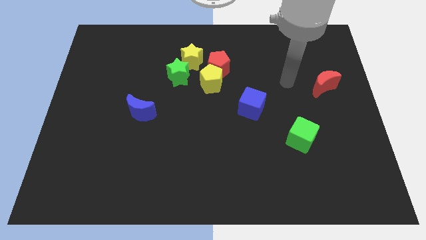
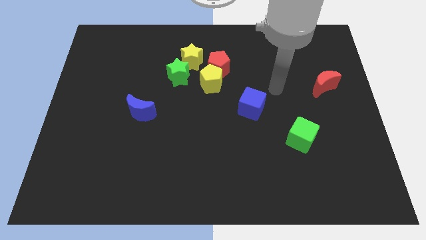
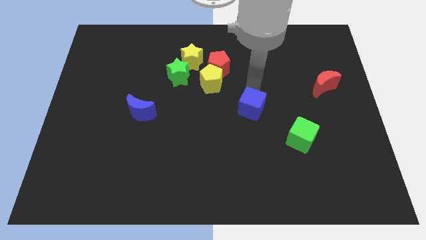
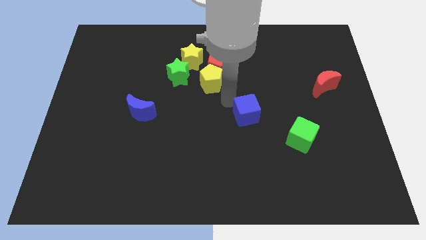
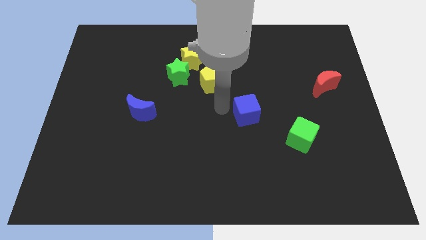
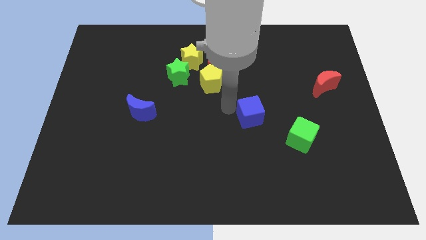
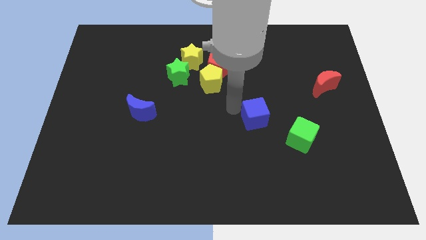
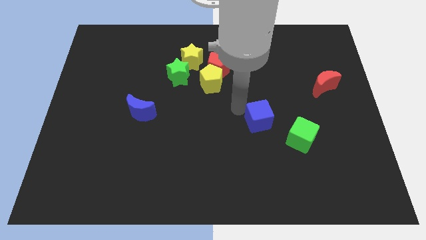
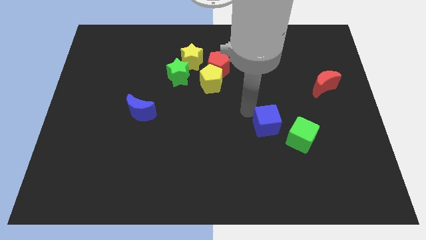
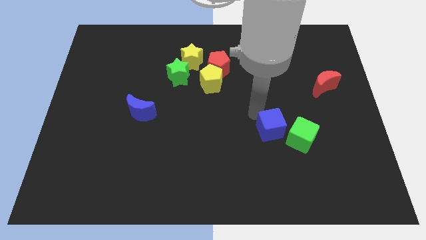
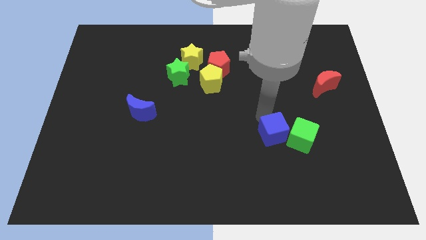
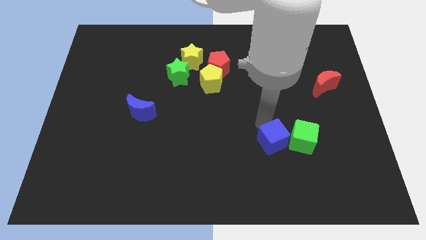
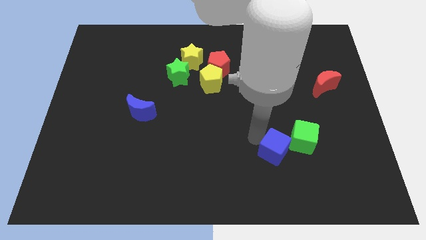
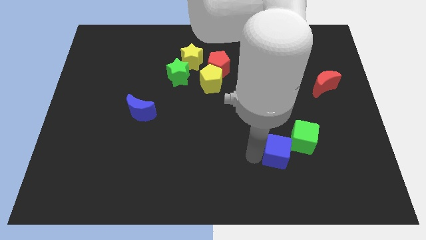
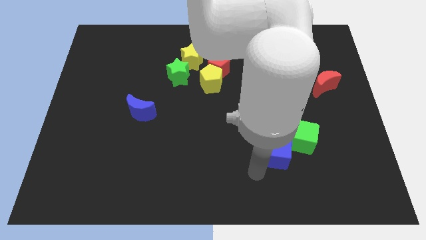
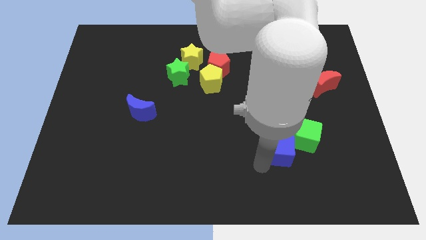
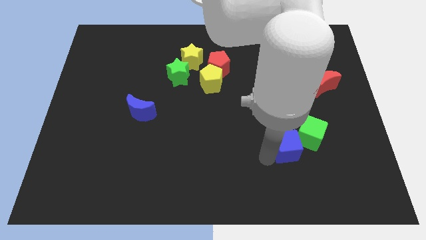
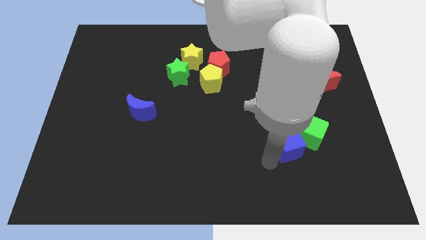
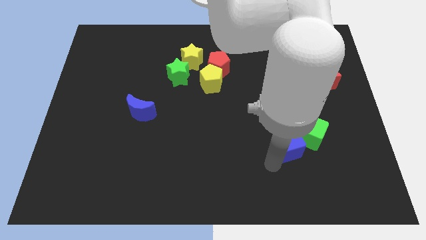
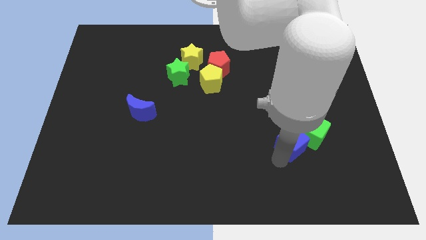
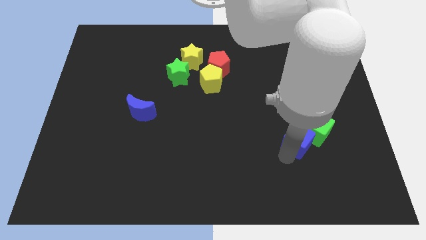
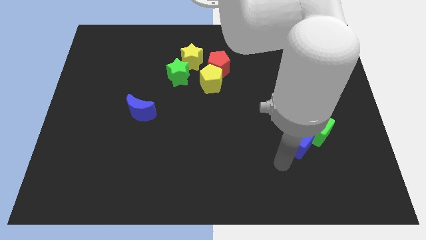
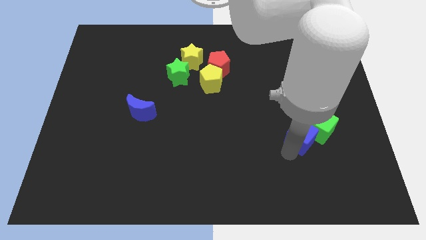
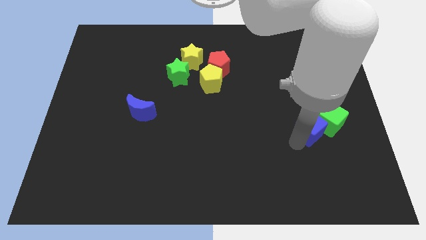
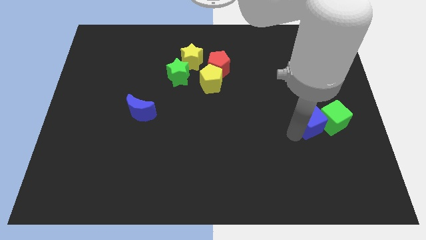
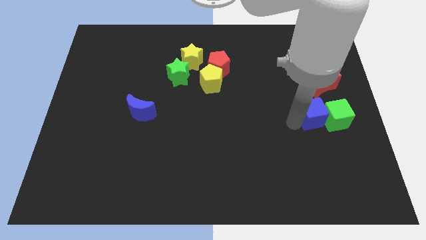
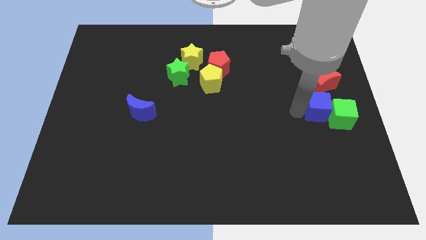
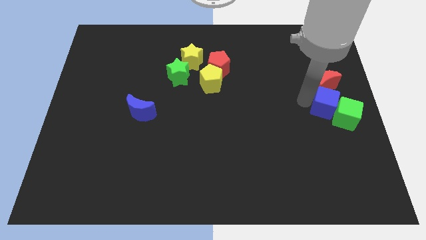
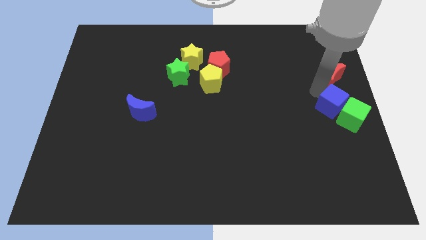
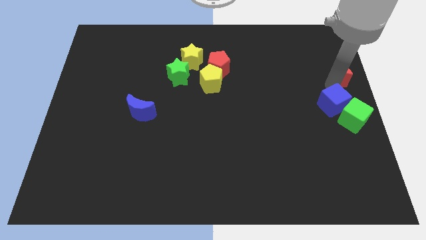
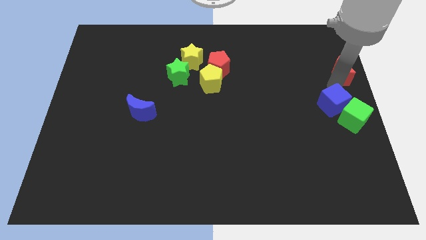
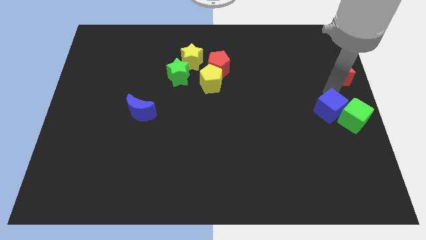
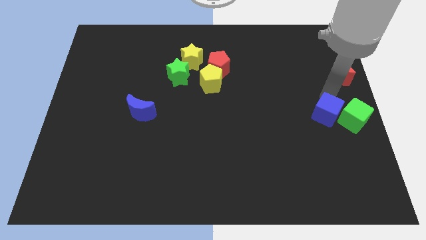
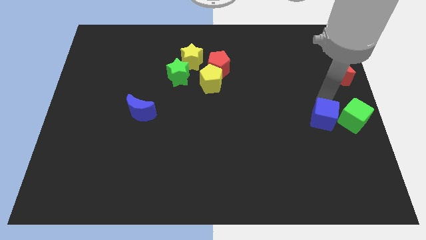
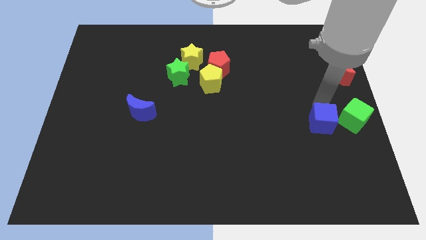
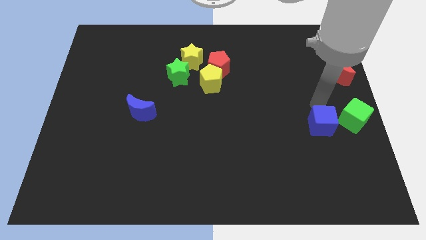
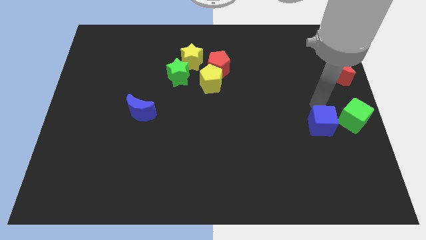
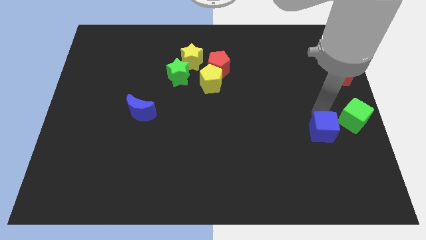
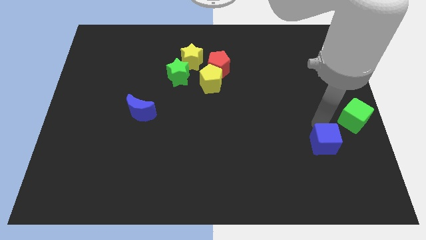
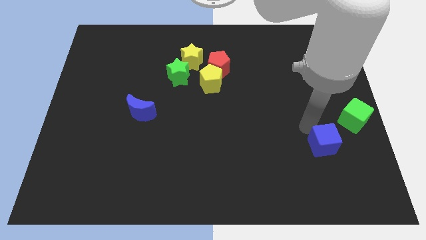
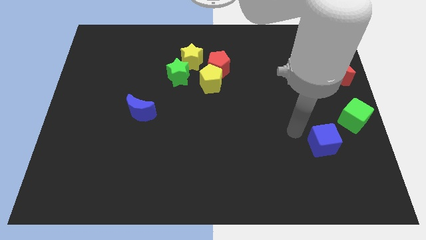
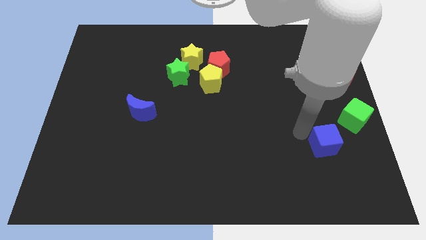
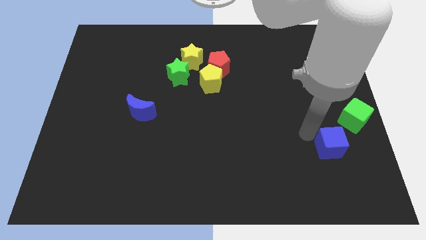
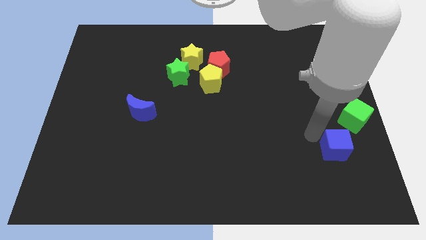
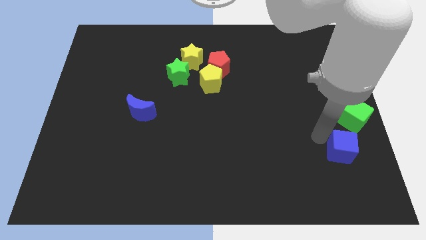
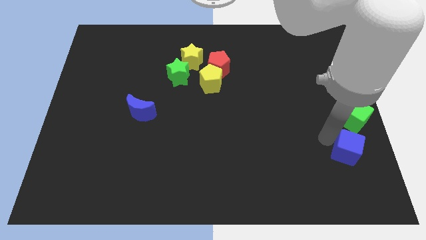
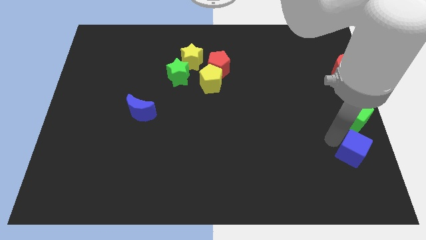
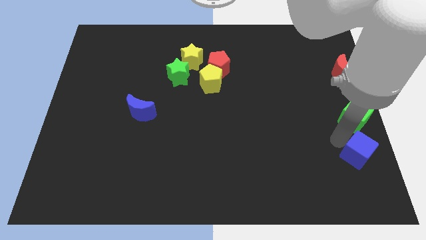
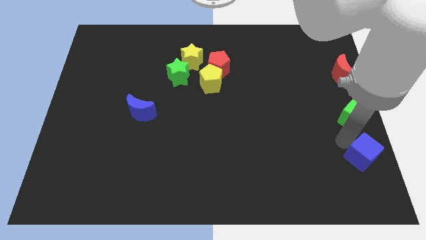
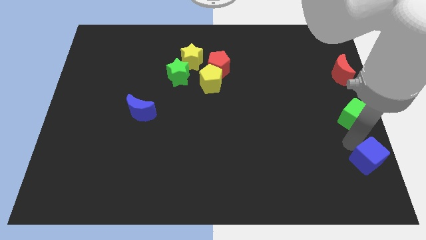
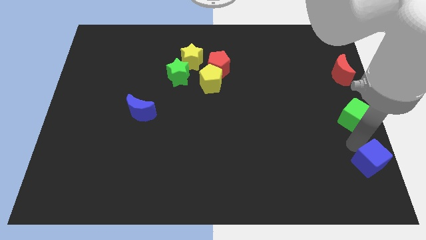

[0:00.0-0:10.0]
slide the blue cube to the bottom right corner
